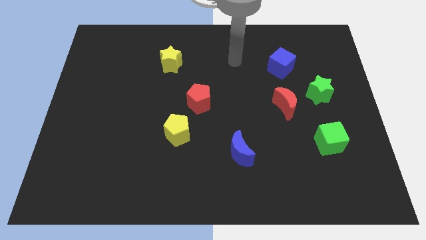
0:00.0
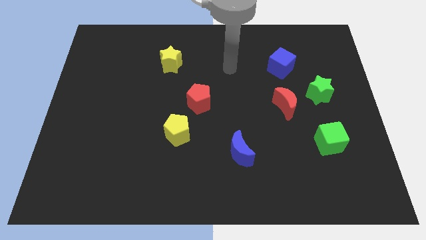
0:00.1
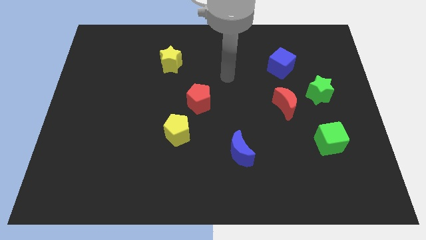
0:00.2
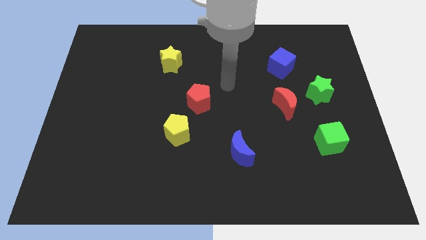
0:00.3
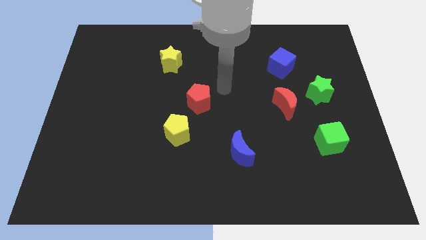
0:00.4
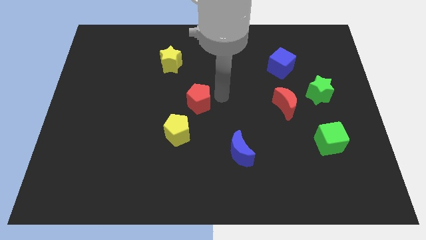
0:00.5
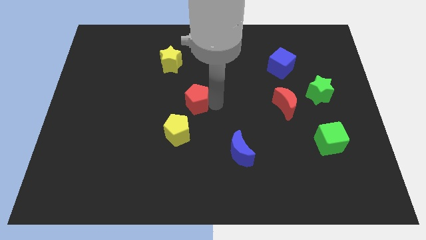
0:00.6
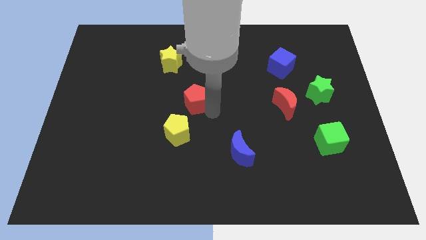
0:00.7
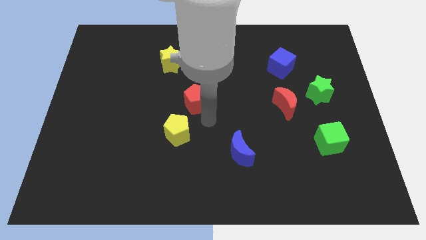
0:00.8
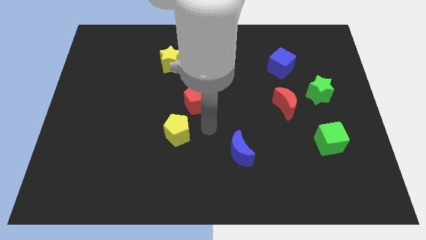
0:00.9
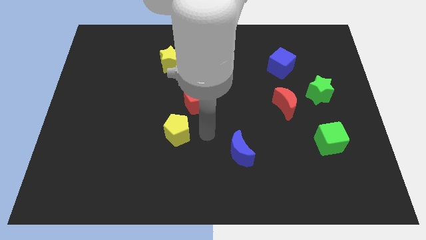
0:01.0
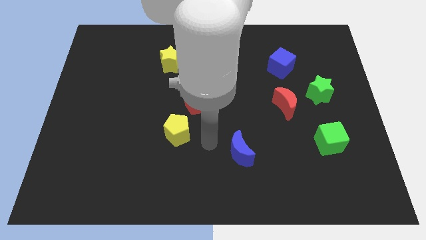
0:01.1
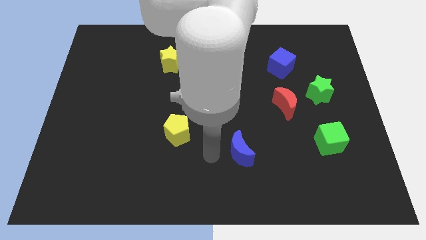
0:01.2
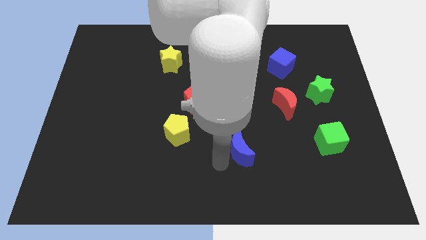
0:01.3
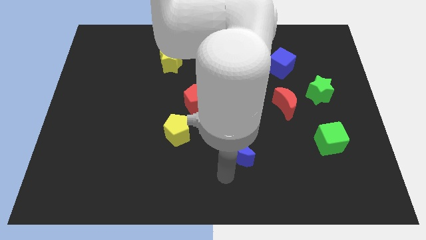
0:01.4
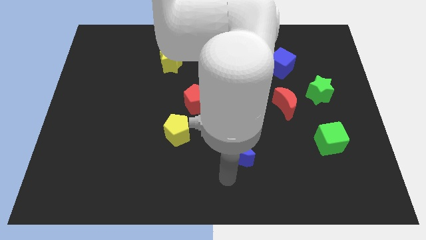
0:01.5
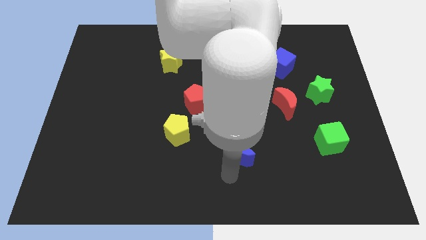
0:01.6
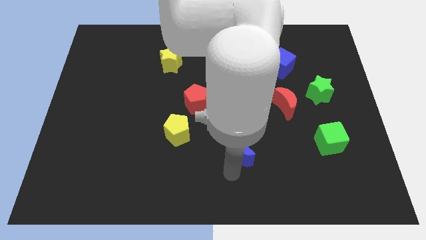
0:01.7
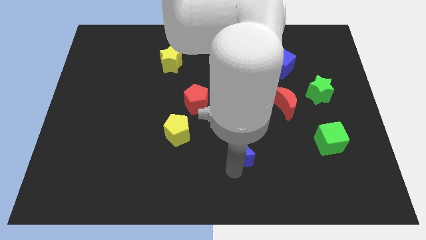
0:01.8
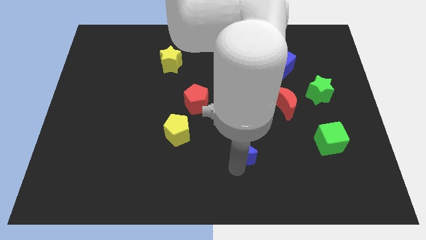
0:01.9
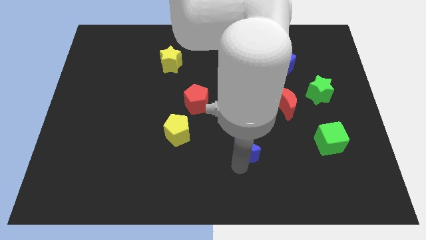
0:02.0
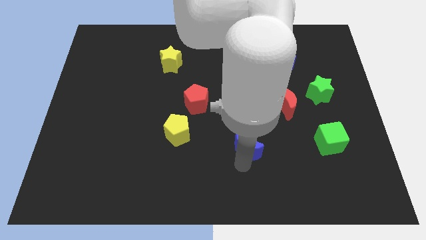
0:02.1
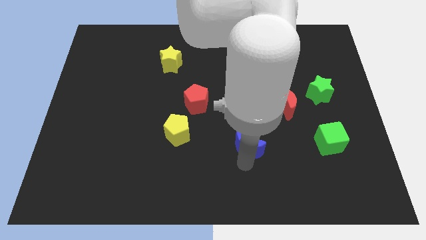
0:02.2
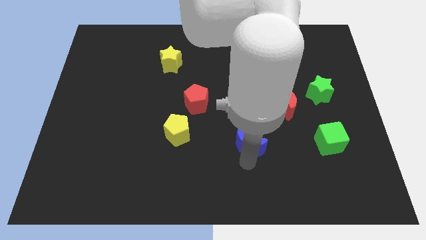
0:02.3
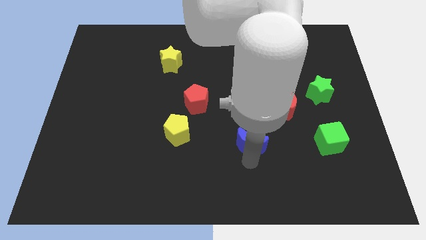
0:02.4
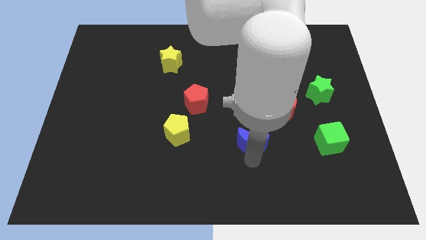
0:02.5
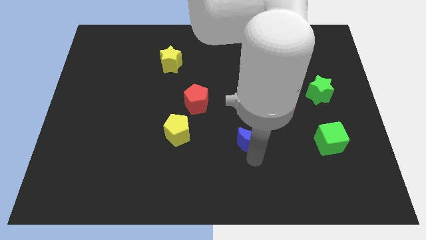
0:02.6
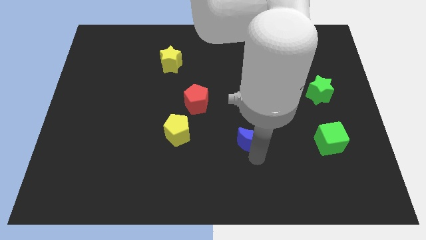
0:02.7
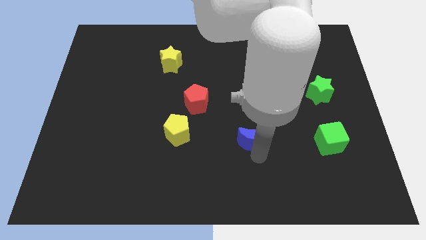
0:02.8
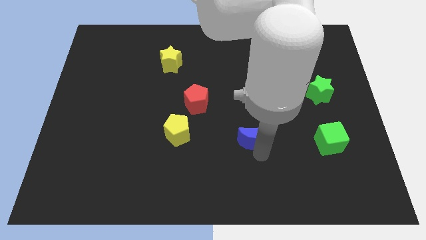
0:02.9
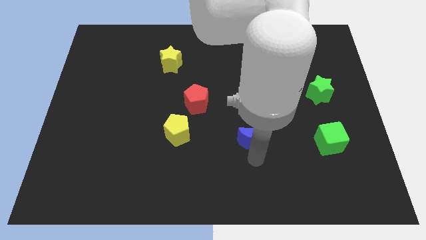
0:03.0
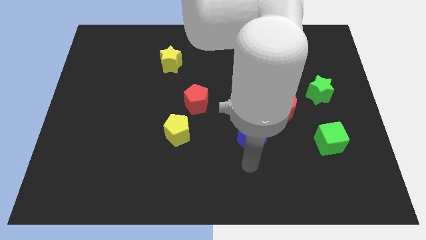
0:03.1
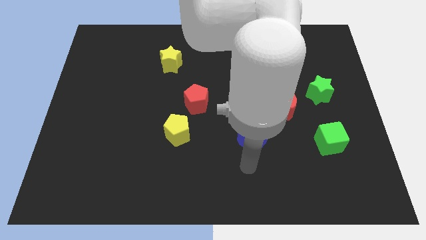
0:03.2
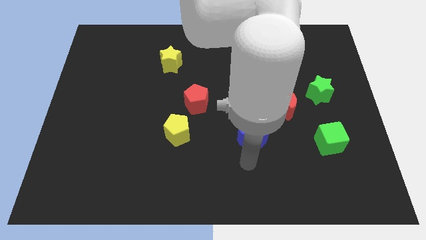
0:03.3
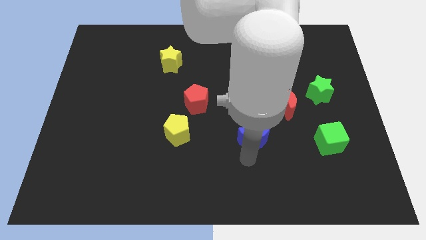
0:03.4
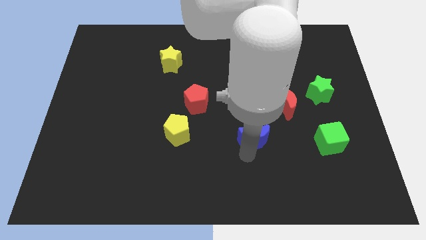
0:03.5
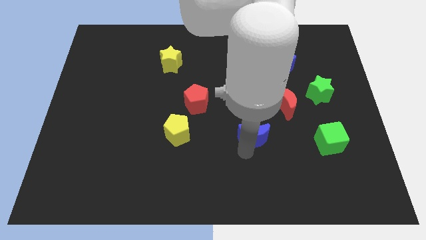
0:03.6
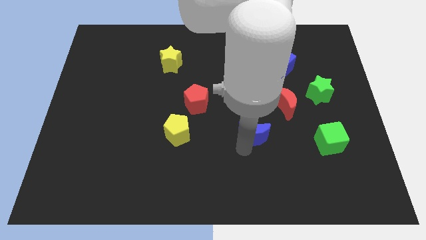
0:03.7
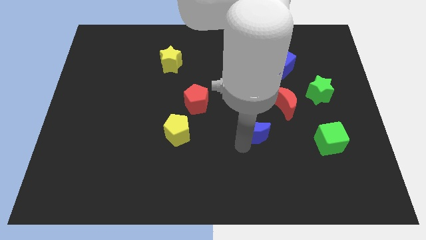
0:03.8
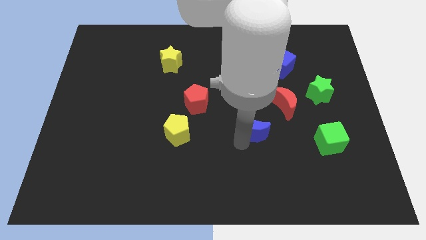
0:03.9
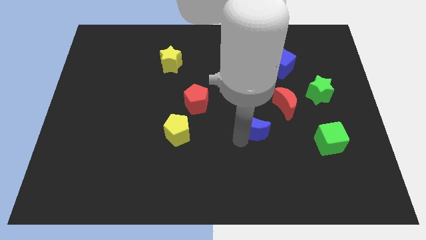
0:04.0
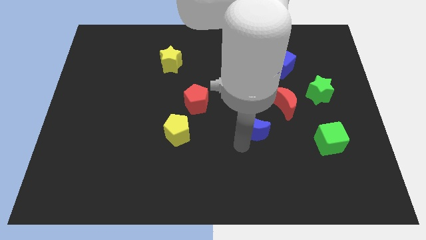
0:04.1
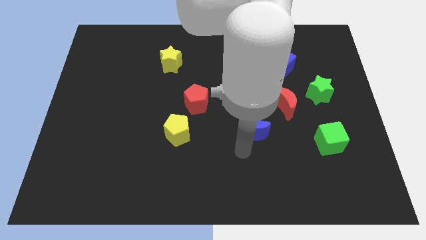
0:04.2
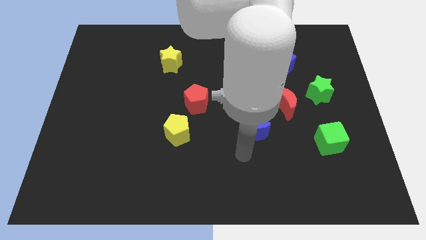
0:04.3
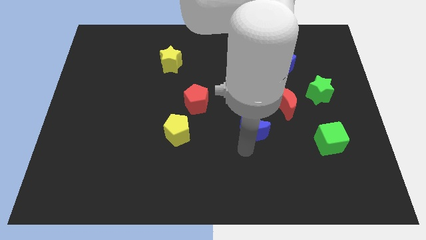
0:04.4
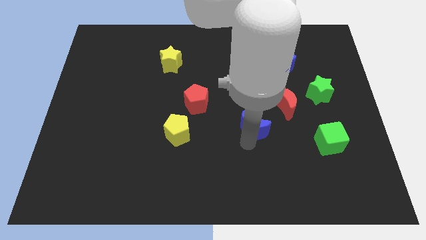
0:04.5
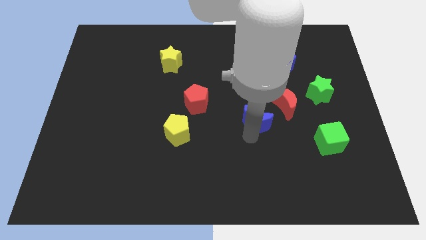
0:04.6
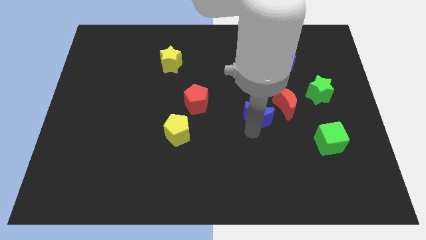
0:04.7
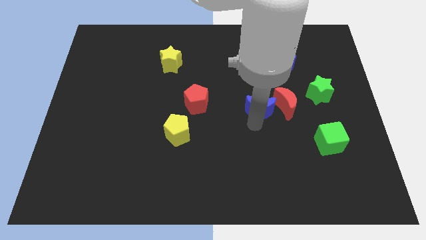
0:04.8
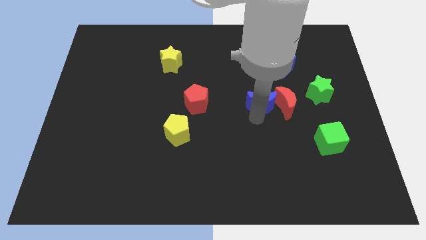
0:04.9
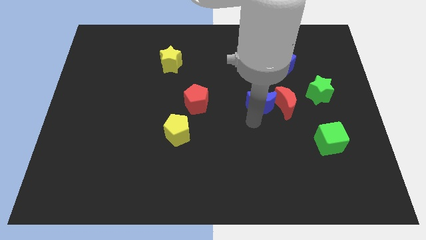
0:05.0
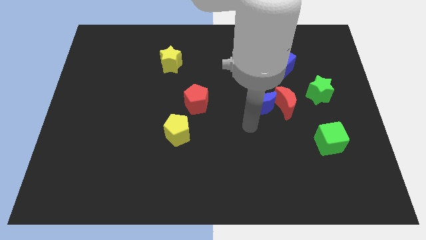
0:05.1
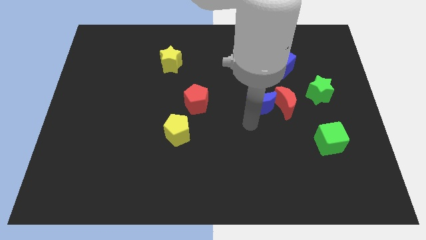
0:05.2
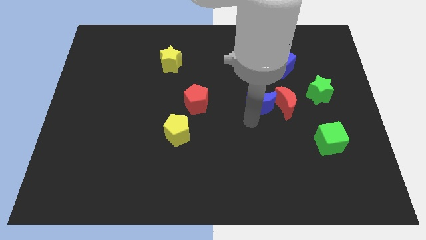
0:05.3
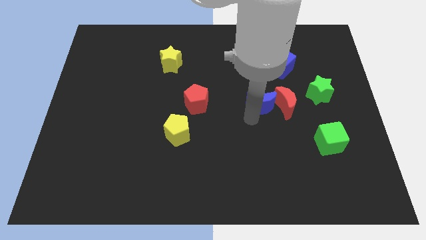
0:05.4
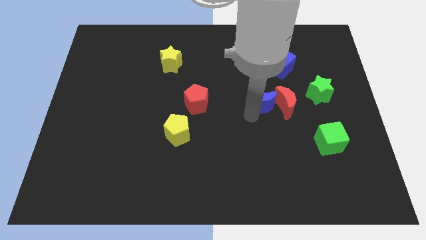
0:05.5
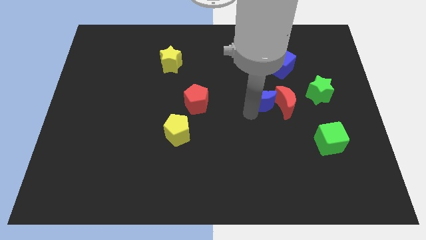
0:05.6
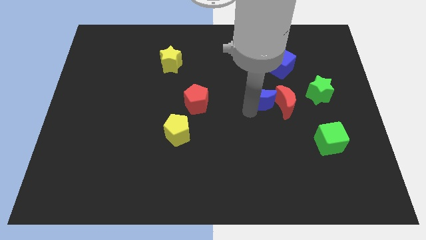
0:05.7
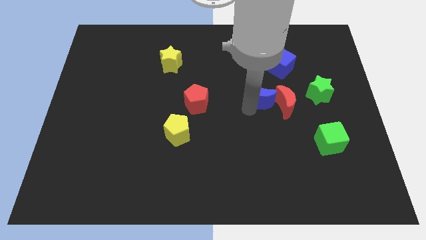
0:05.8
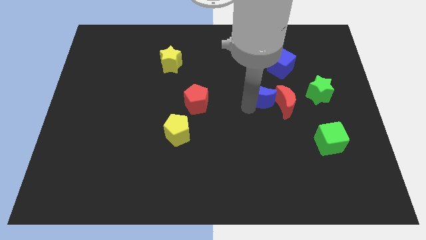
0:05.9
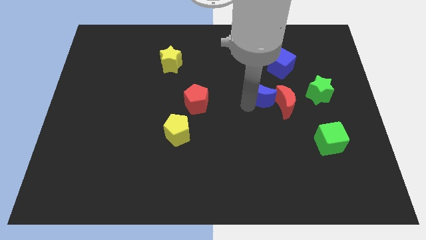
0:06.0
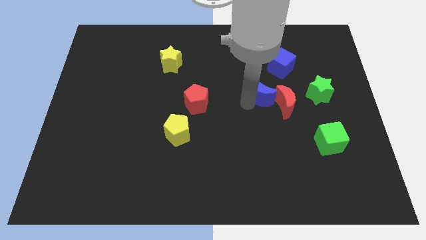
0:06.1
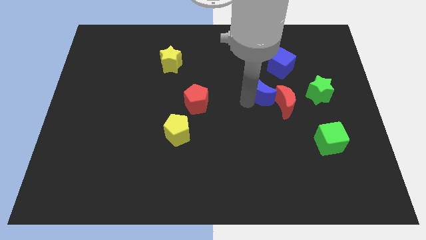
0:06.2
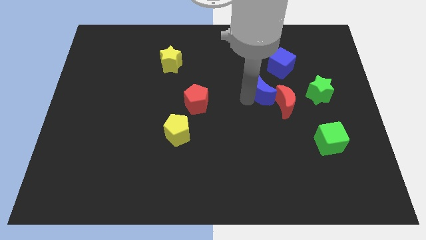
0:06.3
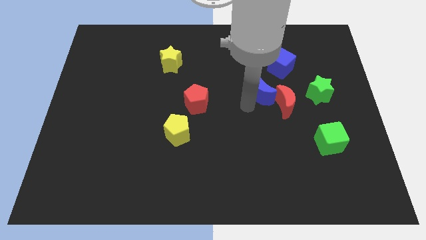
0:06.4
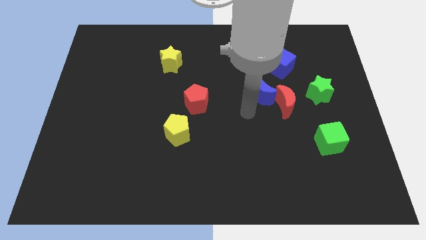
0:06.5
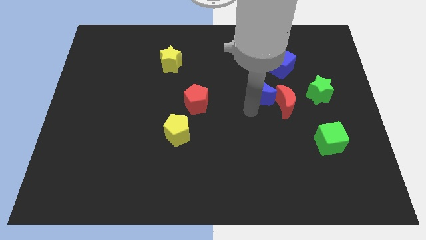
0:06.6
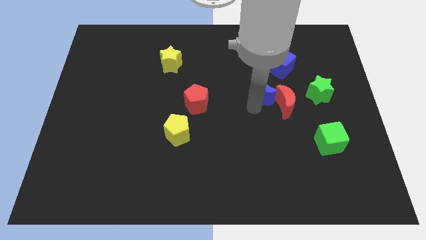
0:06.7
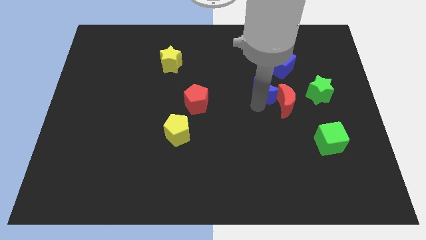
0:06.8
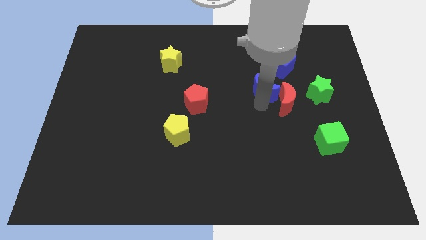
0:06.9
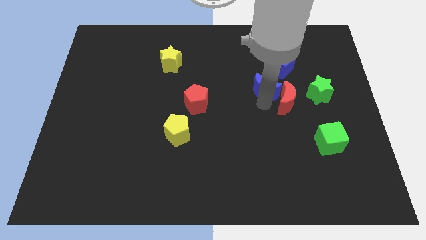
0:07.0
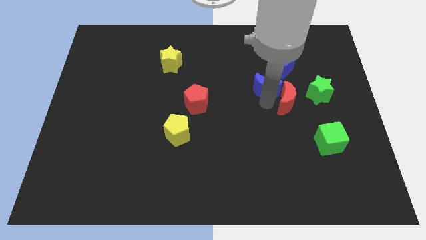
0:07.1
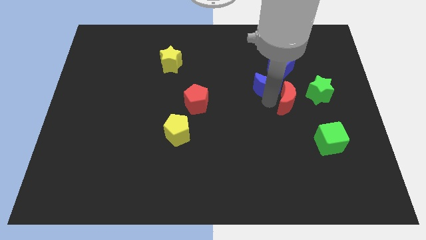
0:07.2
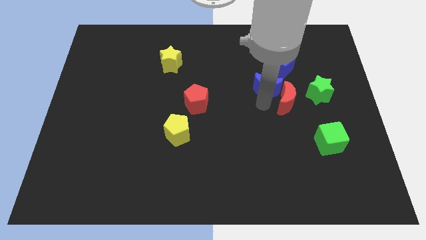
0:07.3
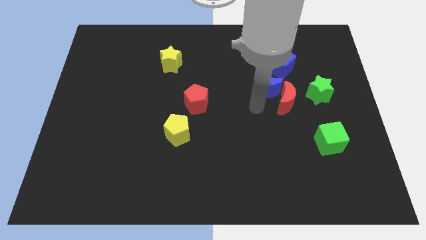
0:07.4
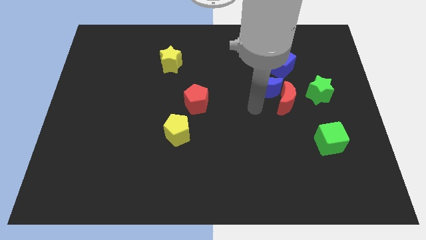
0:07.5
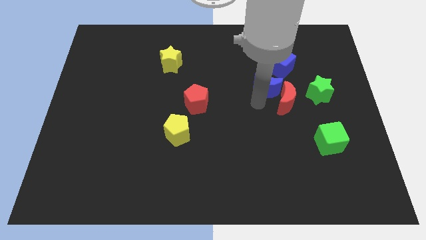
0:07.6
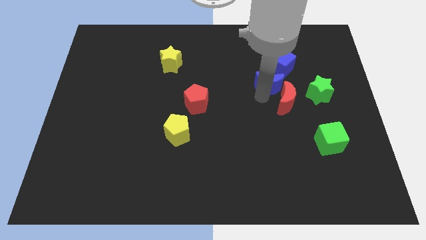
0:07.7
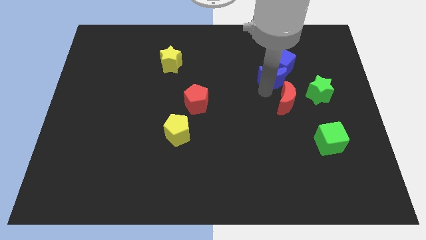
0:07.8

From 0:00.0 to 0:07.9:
put the blue moon close to the blue cube

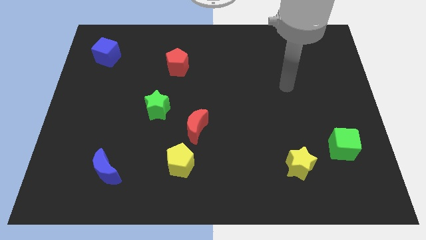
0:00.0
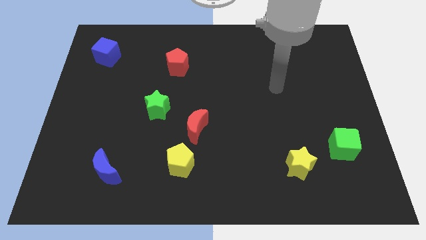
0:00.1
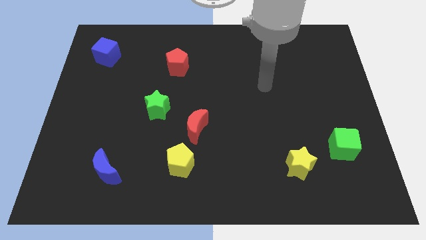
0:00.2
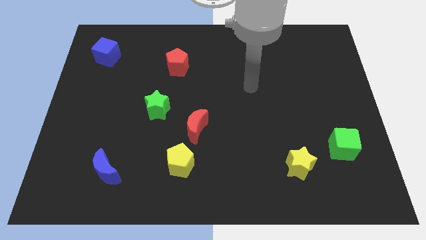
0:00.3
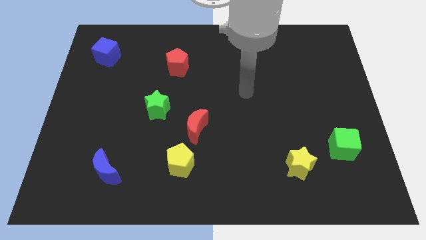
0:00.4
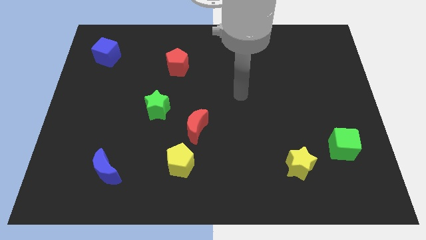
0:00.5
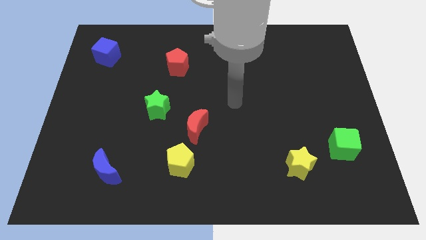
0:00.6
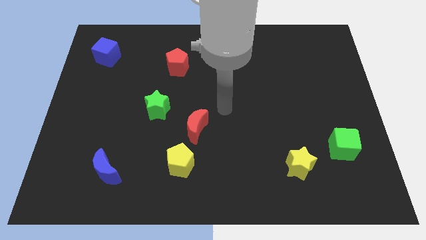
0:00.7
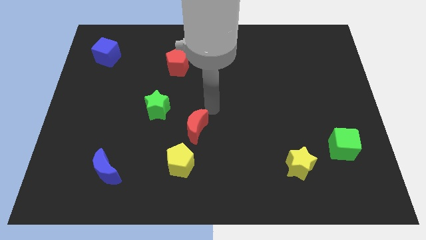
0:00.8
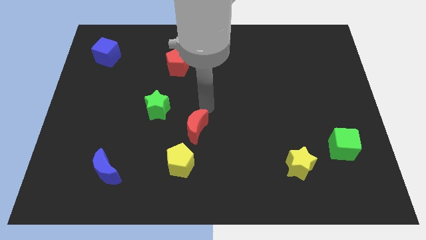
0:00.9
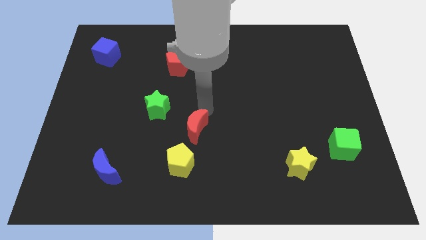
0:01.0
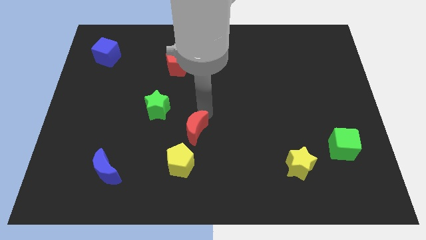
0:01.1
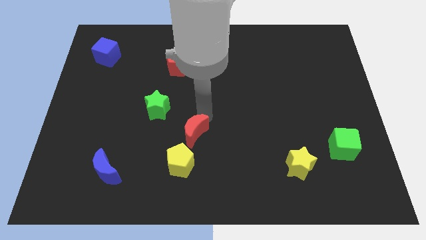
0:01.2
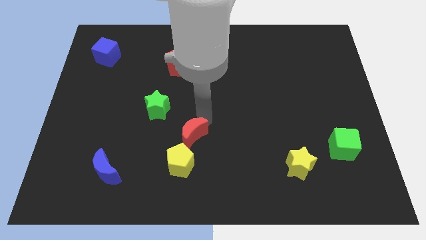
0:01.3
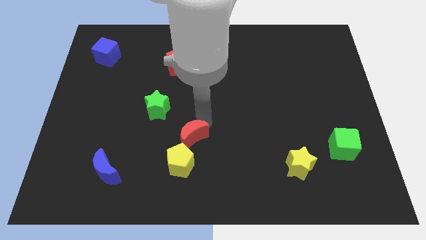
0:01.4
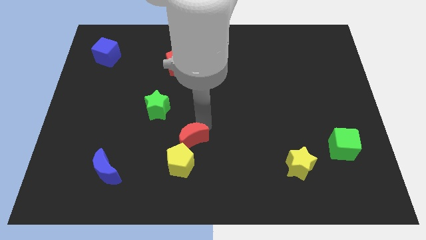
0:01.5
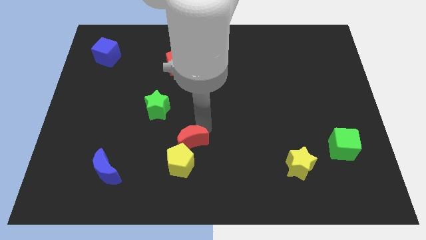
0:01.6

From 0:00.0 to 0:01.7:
move the red moon towards the yellow pentagon
